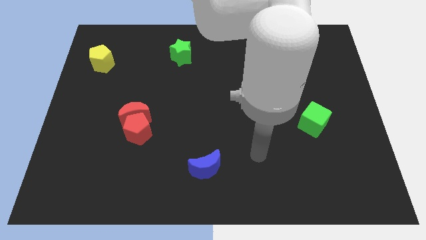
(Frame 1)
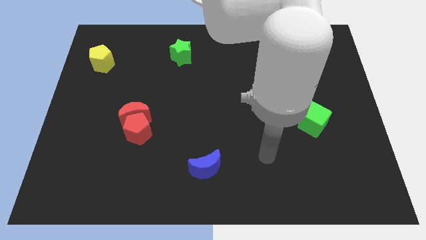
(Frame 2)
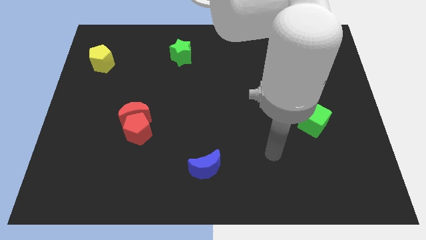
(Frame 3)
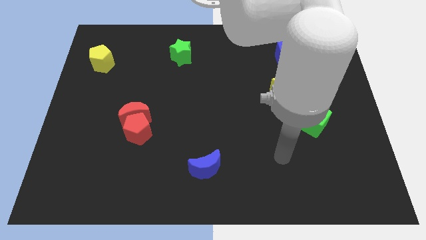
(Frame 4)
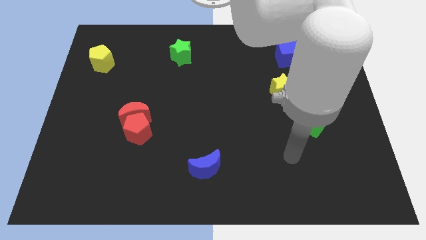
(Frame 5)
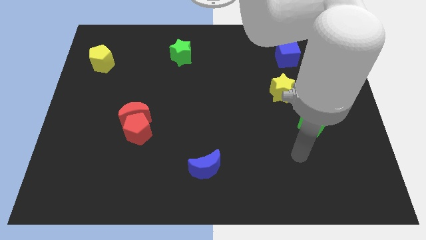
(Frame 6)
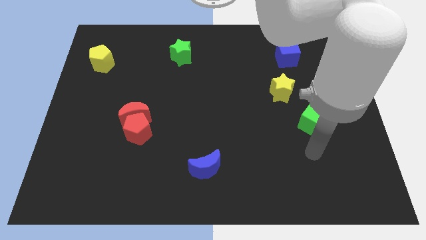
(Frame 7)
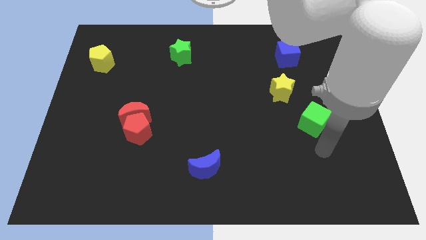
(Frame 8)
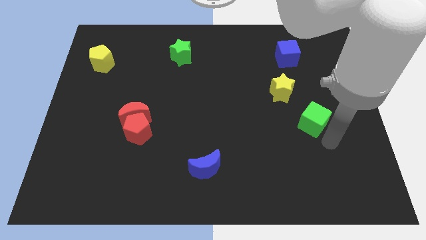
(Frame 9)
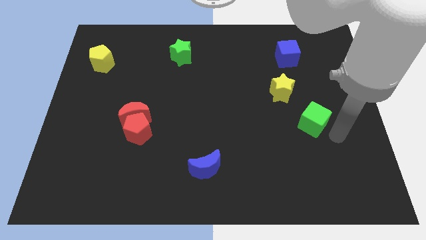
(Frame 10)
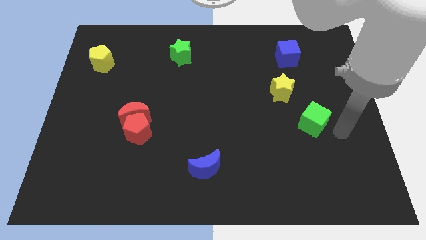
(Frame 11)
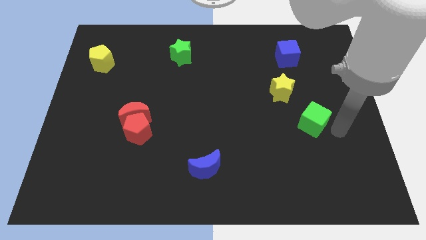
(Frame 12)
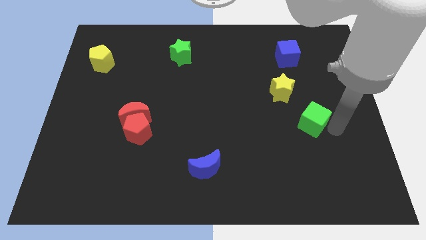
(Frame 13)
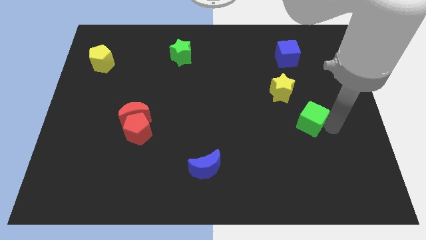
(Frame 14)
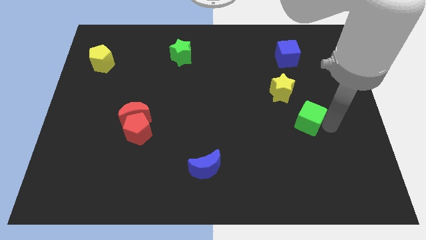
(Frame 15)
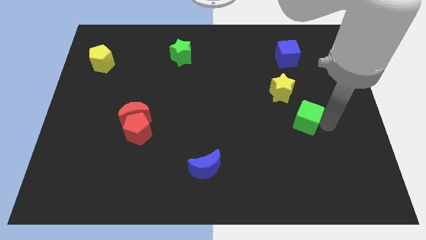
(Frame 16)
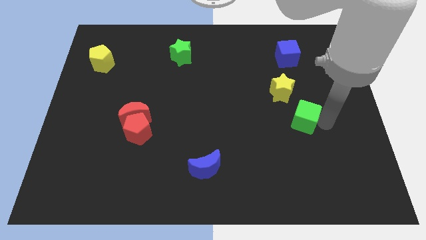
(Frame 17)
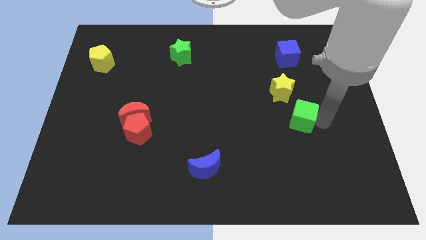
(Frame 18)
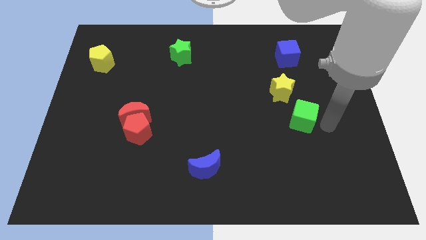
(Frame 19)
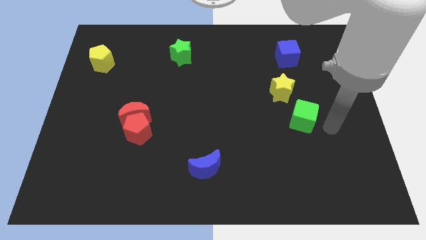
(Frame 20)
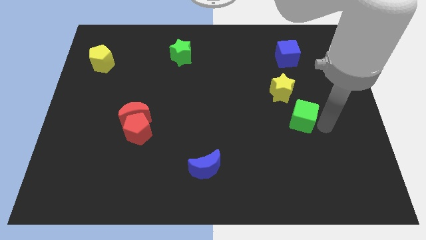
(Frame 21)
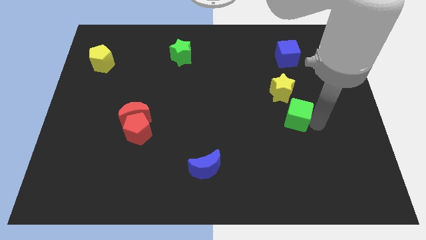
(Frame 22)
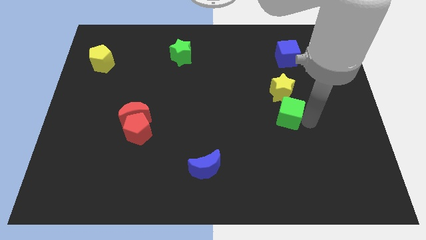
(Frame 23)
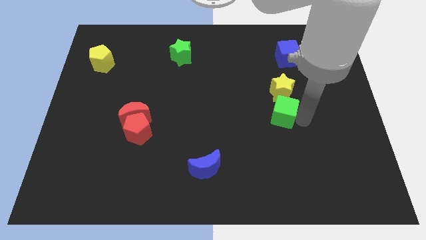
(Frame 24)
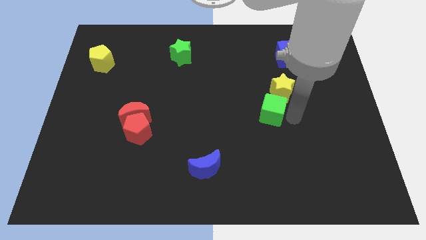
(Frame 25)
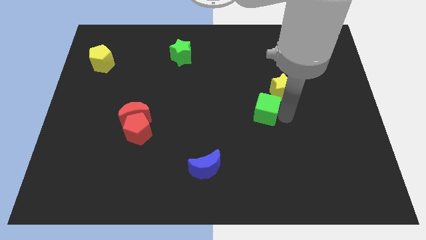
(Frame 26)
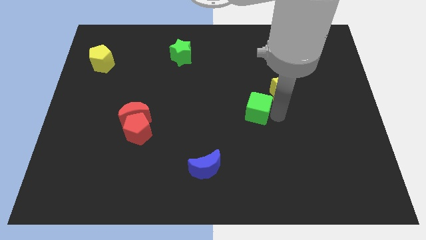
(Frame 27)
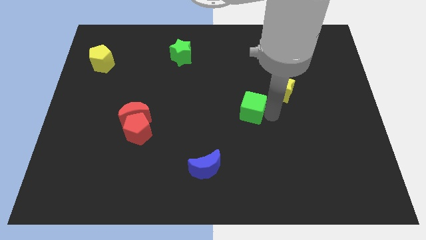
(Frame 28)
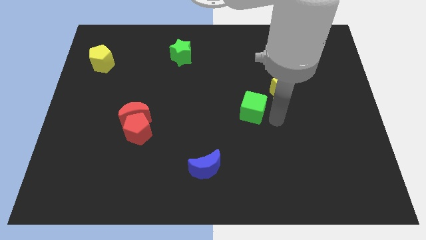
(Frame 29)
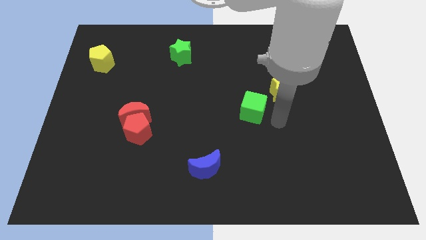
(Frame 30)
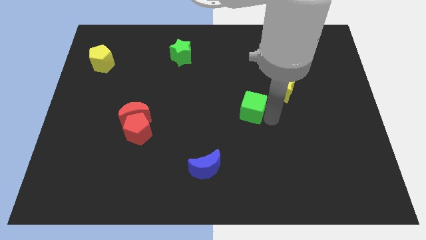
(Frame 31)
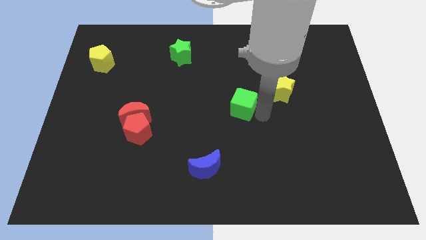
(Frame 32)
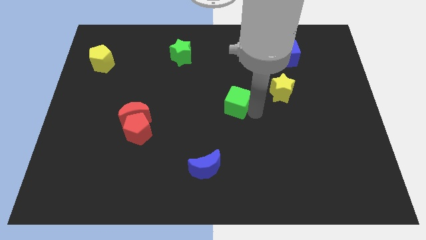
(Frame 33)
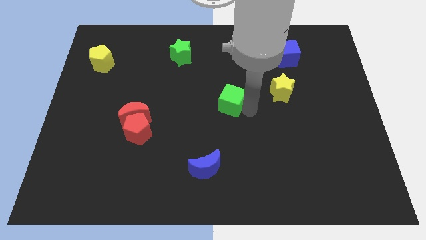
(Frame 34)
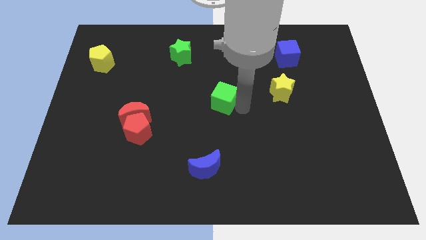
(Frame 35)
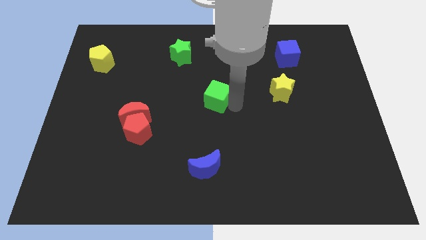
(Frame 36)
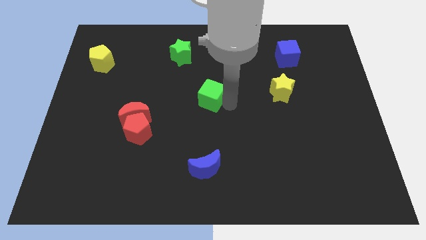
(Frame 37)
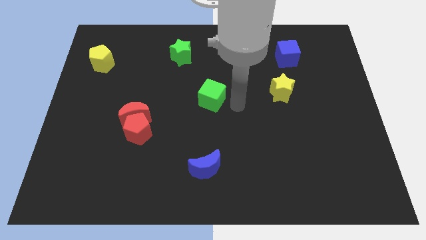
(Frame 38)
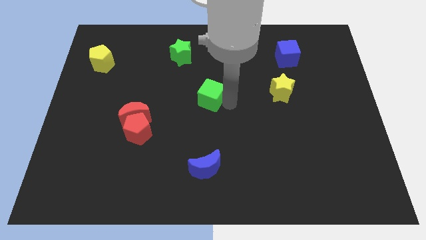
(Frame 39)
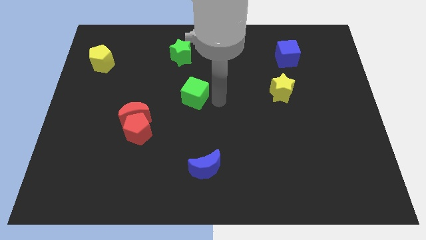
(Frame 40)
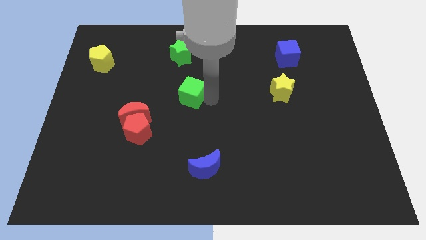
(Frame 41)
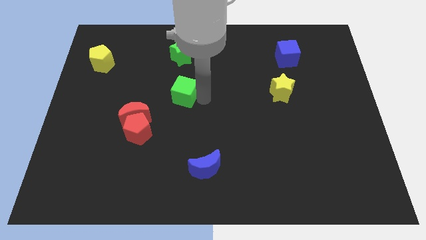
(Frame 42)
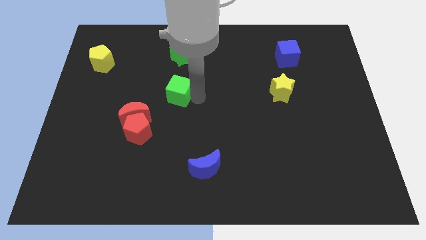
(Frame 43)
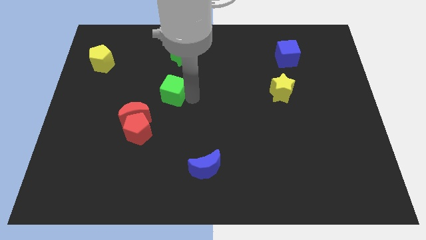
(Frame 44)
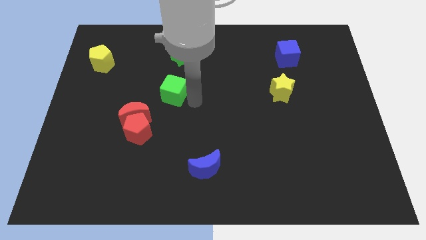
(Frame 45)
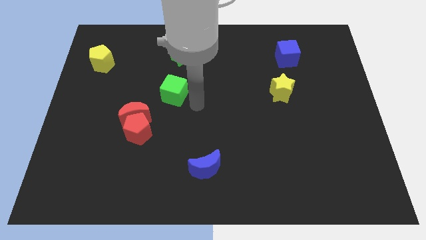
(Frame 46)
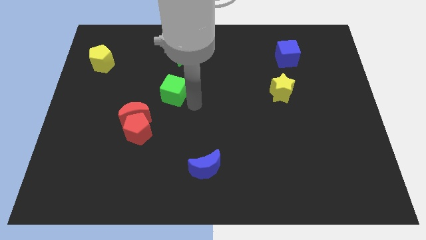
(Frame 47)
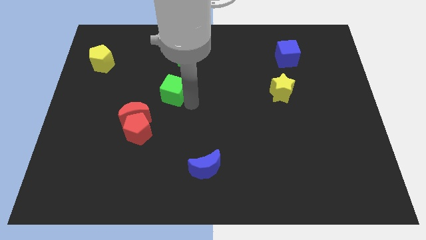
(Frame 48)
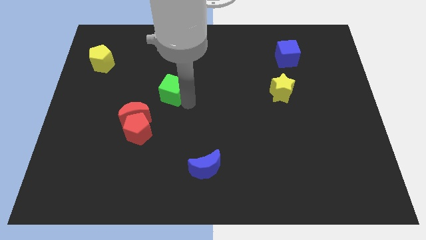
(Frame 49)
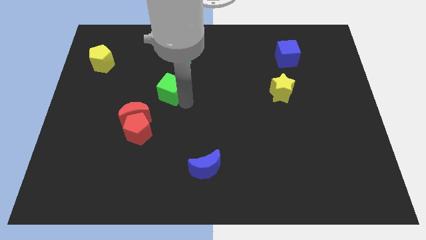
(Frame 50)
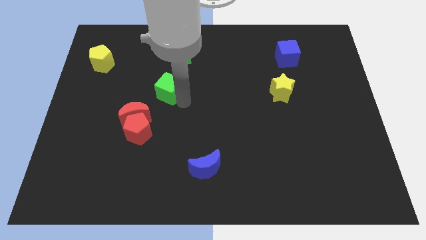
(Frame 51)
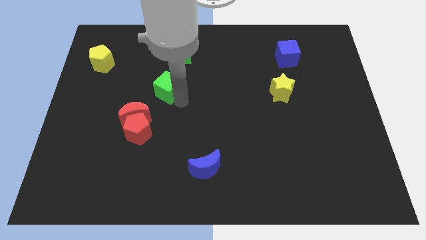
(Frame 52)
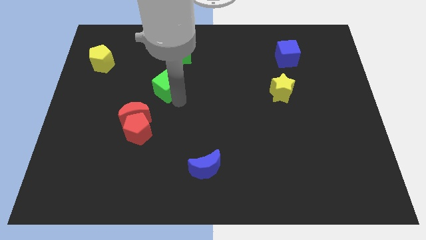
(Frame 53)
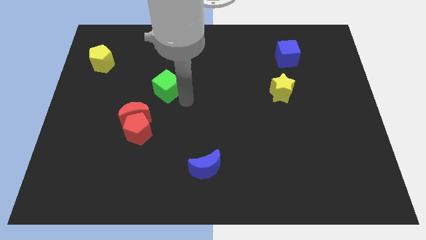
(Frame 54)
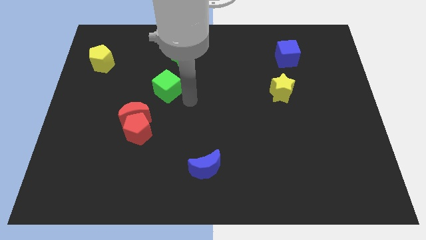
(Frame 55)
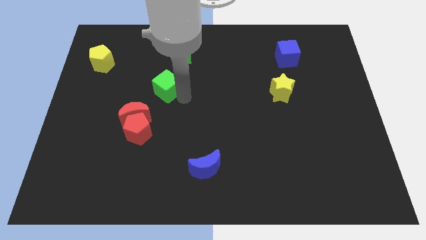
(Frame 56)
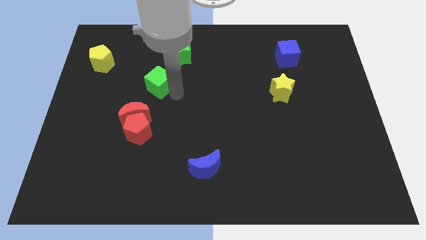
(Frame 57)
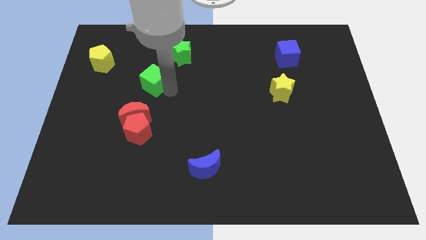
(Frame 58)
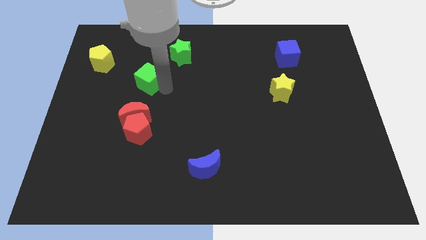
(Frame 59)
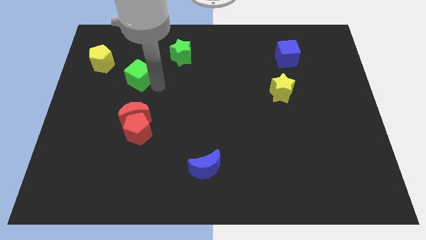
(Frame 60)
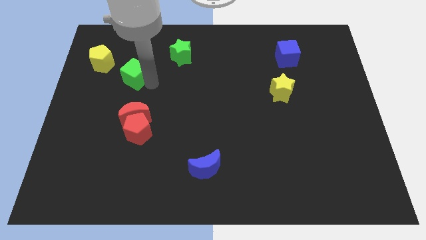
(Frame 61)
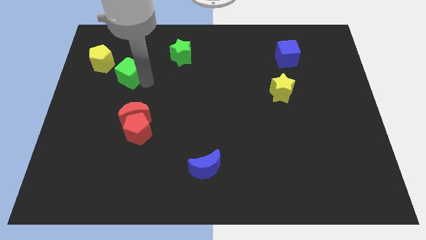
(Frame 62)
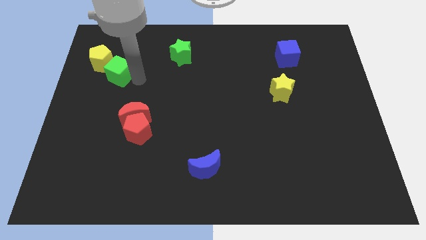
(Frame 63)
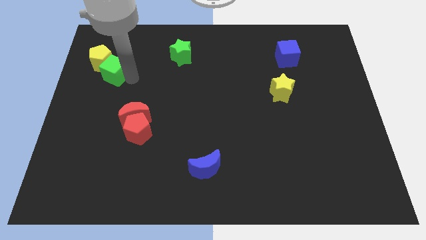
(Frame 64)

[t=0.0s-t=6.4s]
move the green cube close to the yellow pentagon

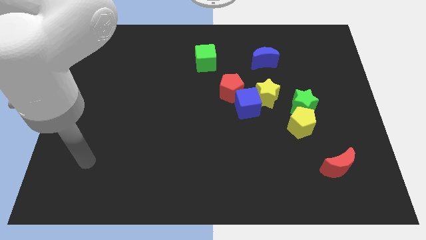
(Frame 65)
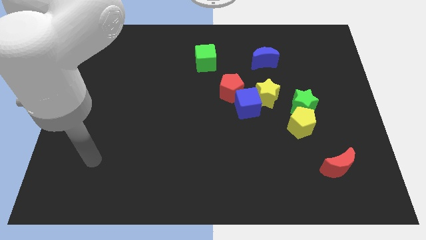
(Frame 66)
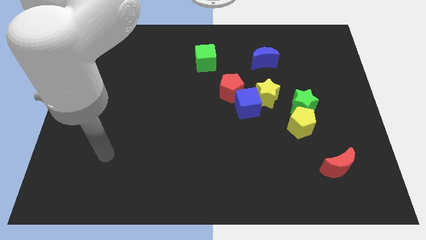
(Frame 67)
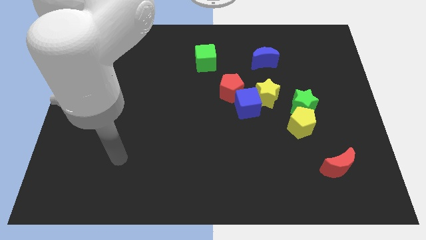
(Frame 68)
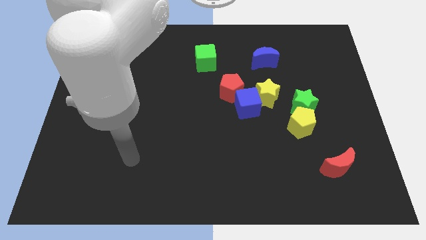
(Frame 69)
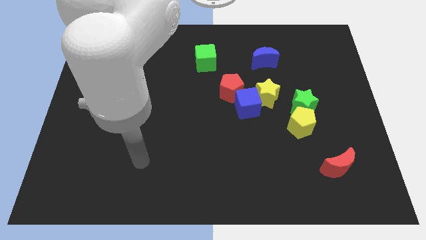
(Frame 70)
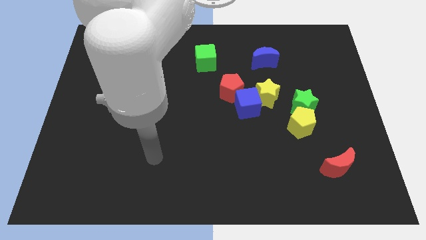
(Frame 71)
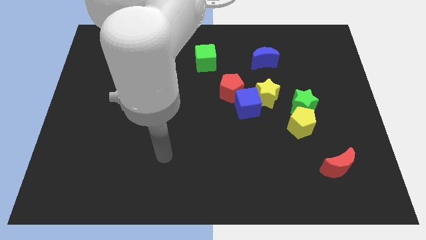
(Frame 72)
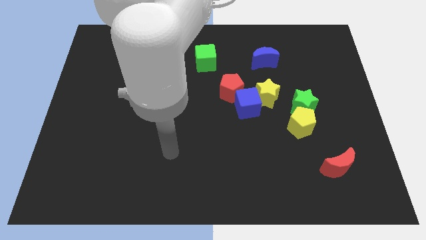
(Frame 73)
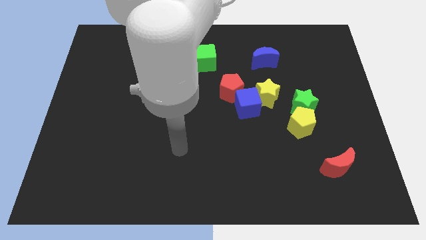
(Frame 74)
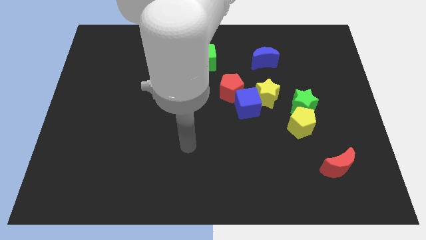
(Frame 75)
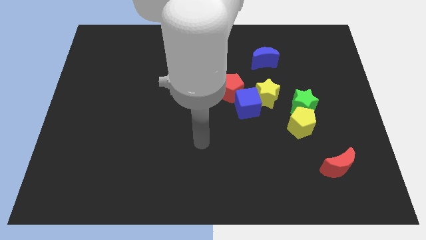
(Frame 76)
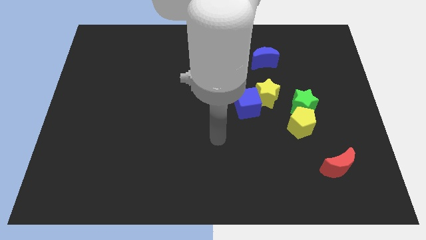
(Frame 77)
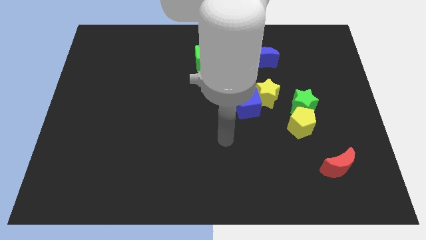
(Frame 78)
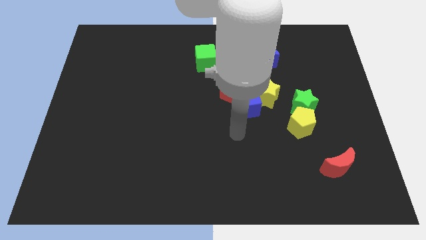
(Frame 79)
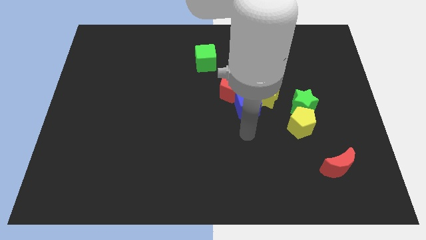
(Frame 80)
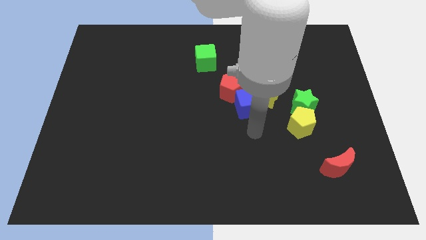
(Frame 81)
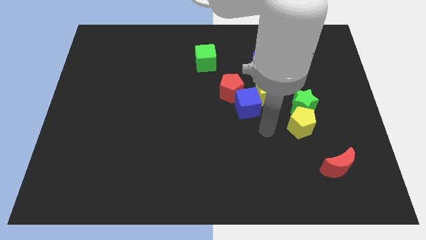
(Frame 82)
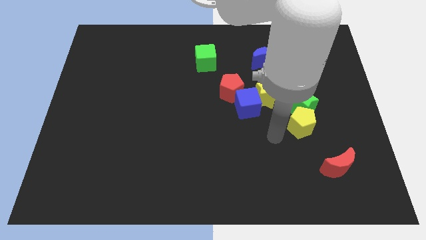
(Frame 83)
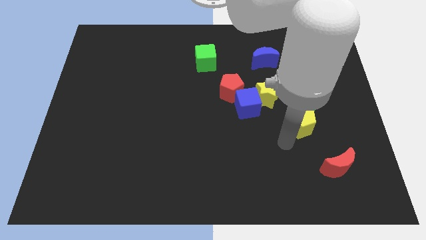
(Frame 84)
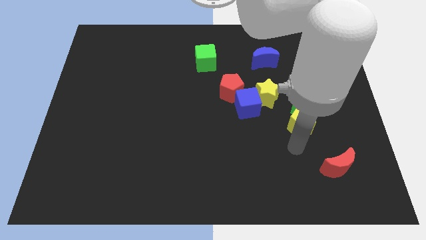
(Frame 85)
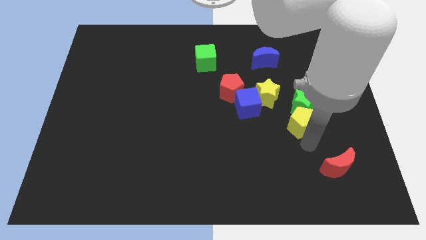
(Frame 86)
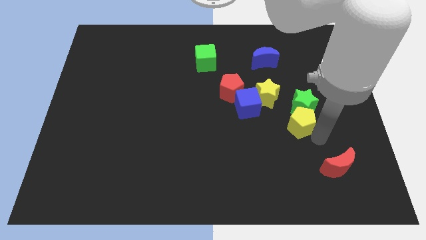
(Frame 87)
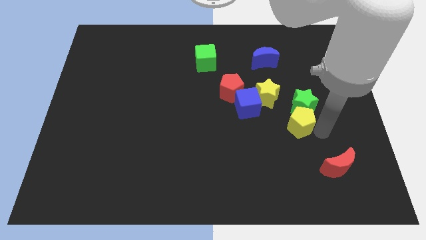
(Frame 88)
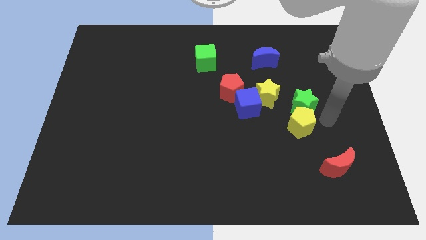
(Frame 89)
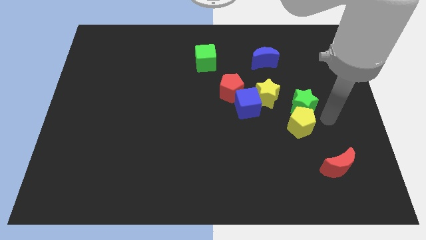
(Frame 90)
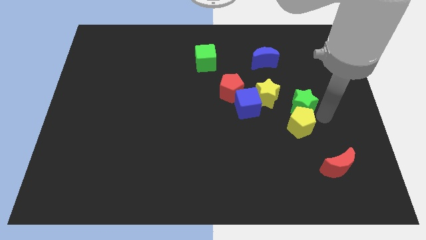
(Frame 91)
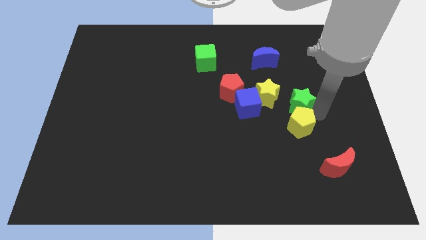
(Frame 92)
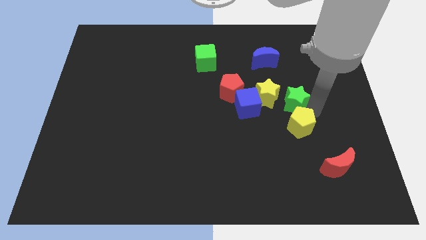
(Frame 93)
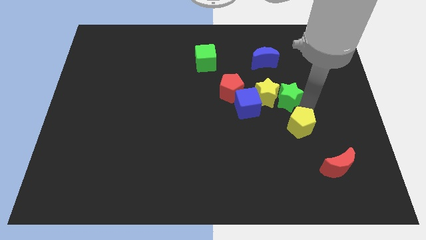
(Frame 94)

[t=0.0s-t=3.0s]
move the green star close to the yellow star
